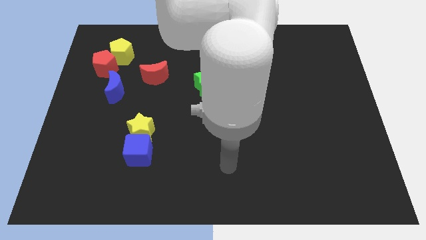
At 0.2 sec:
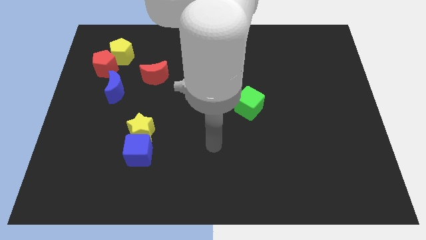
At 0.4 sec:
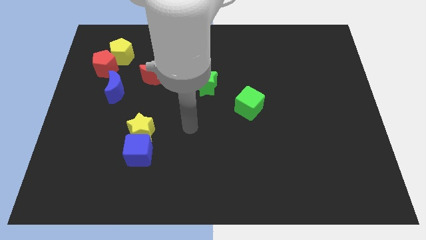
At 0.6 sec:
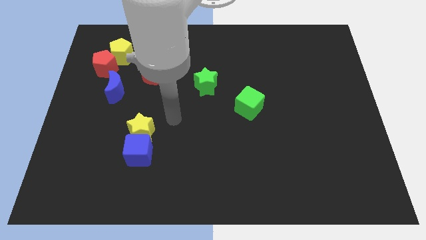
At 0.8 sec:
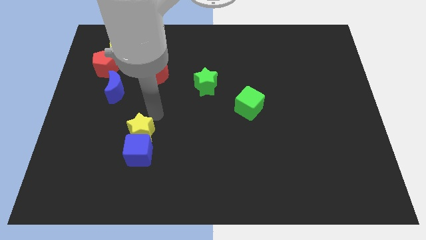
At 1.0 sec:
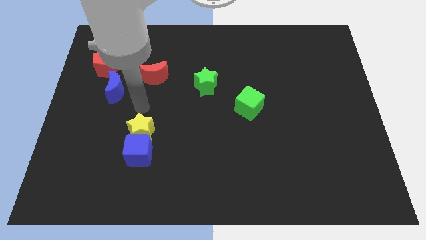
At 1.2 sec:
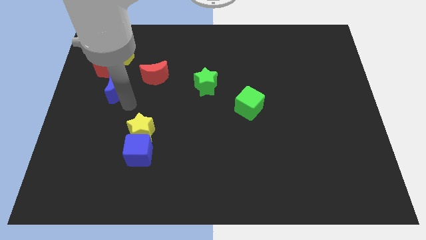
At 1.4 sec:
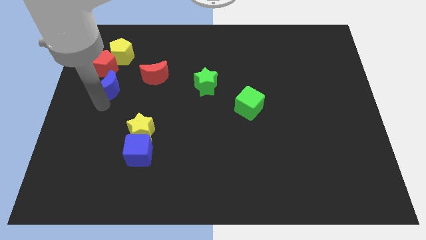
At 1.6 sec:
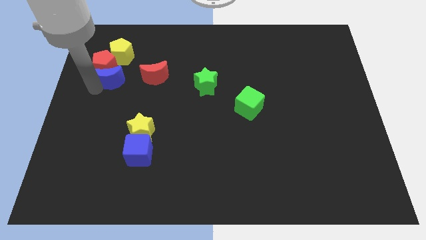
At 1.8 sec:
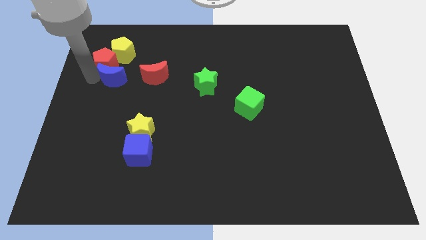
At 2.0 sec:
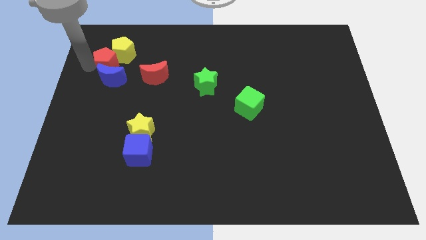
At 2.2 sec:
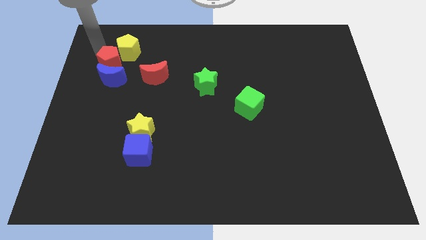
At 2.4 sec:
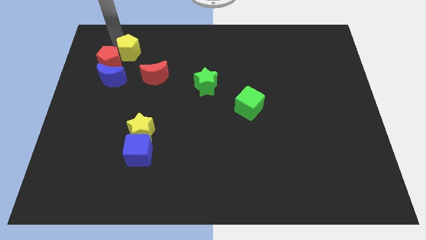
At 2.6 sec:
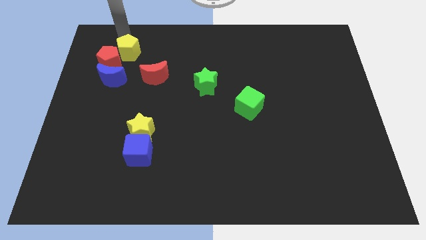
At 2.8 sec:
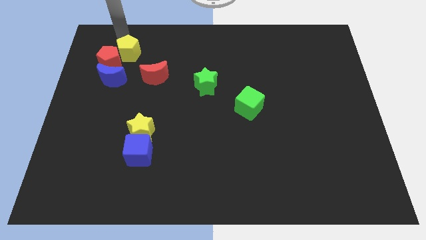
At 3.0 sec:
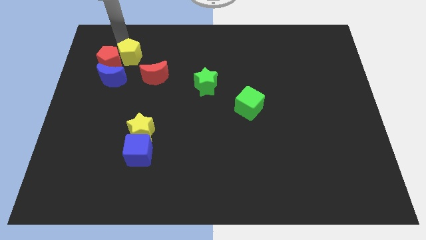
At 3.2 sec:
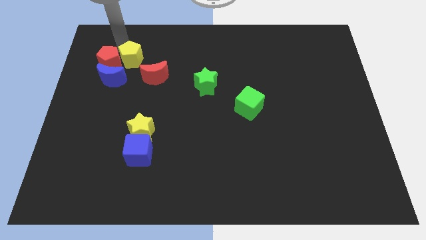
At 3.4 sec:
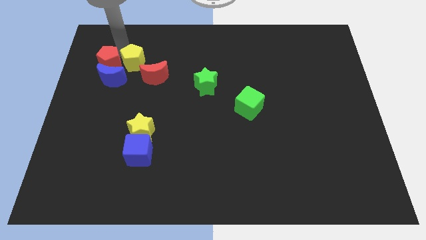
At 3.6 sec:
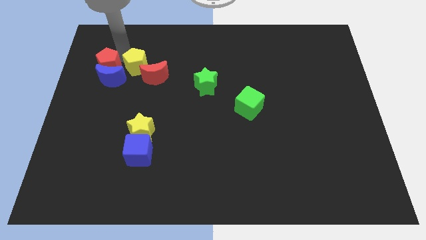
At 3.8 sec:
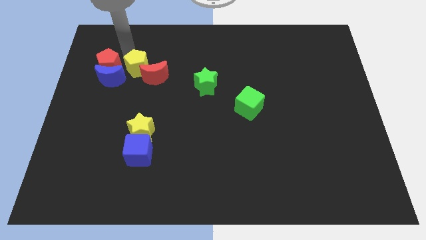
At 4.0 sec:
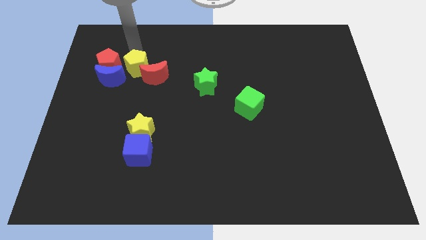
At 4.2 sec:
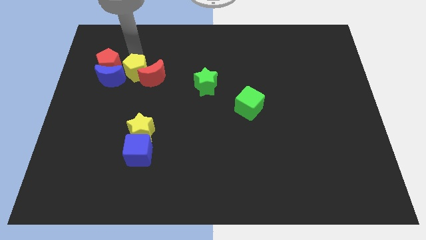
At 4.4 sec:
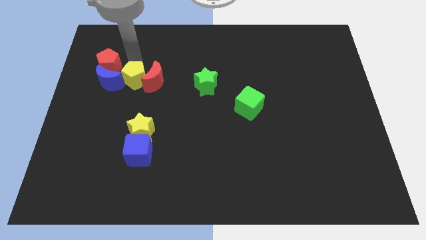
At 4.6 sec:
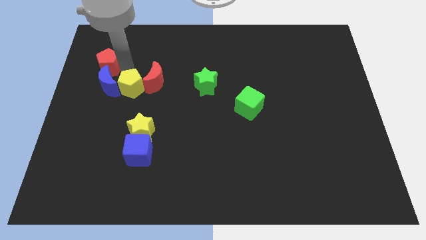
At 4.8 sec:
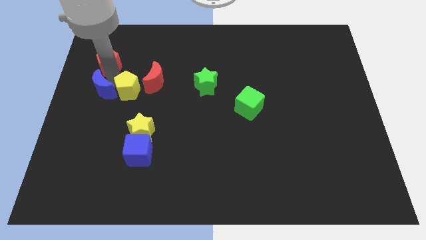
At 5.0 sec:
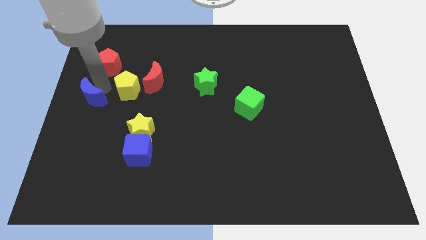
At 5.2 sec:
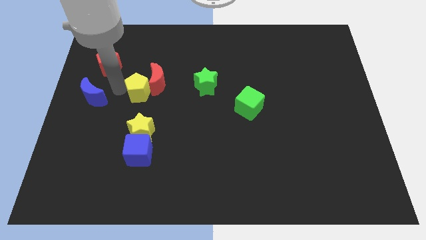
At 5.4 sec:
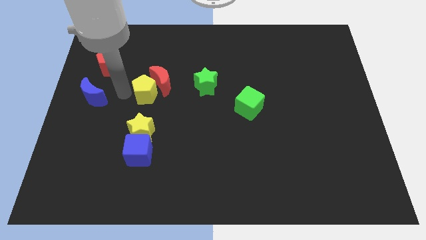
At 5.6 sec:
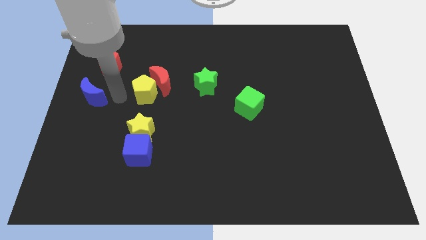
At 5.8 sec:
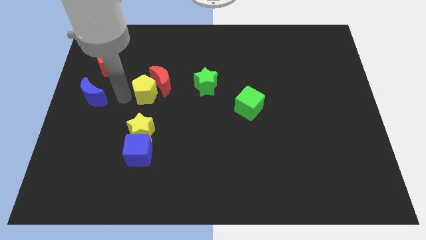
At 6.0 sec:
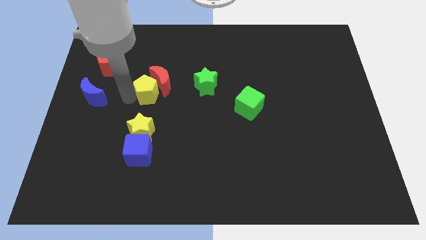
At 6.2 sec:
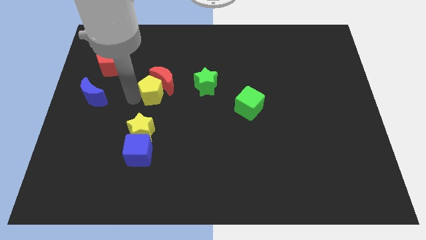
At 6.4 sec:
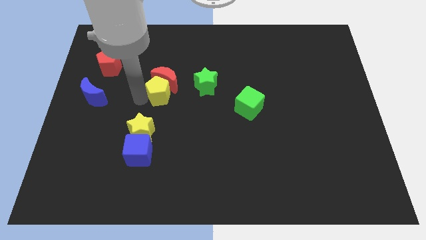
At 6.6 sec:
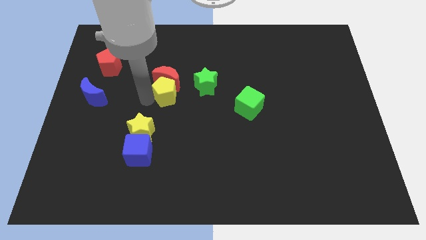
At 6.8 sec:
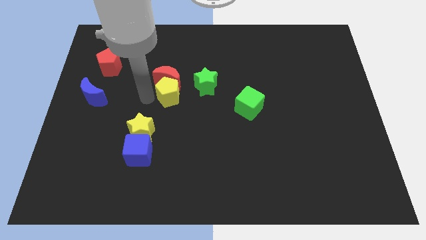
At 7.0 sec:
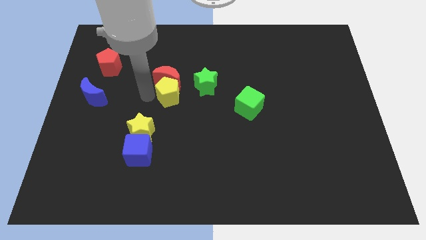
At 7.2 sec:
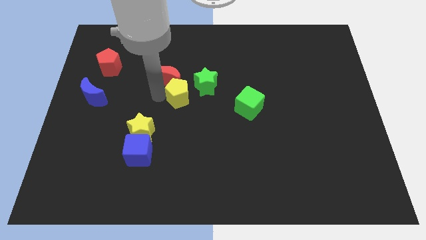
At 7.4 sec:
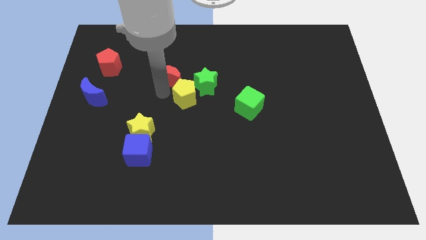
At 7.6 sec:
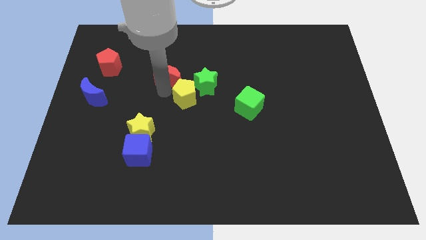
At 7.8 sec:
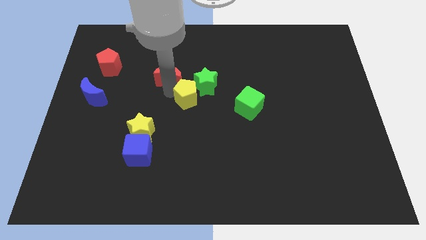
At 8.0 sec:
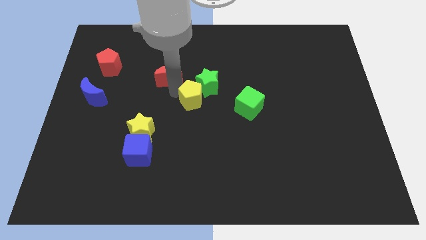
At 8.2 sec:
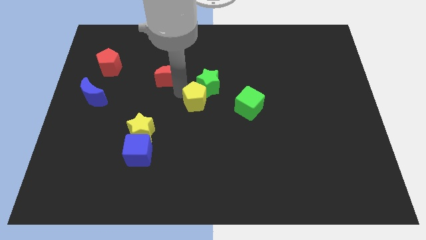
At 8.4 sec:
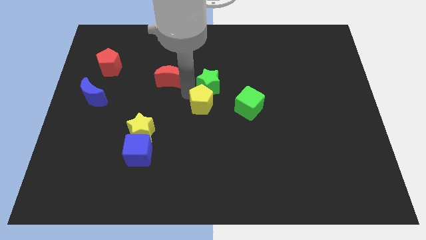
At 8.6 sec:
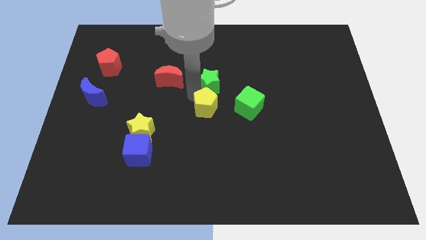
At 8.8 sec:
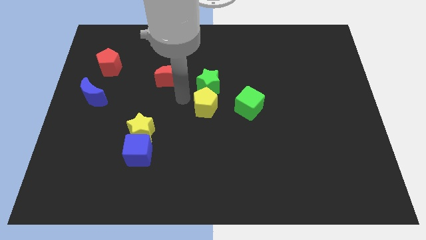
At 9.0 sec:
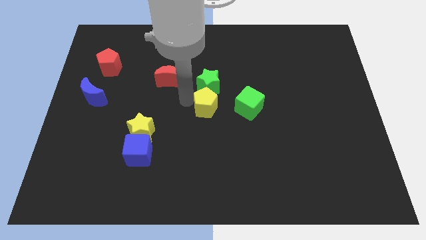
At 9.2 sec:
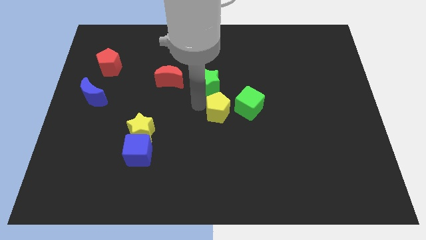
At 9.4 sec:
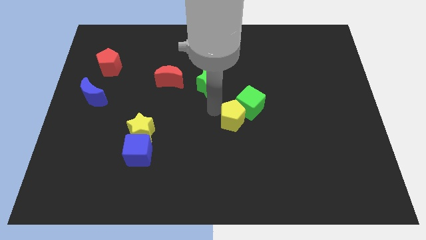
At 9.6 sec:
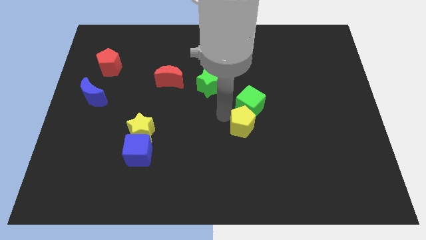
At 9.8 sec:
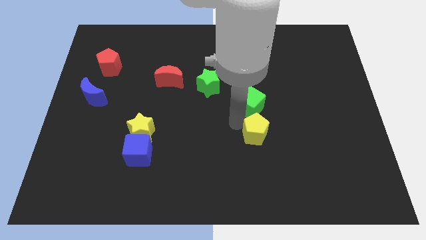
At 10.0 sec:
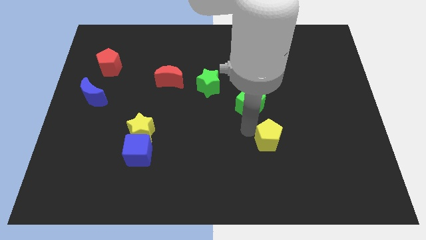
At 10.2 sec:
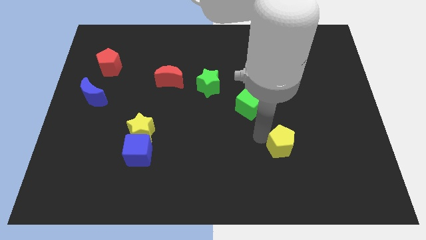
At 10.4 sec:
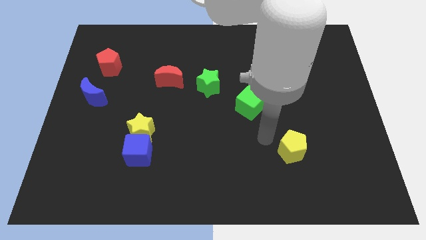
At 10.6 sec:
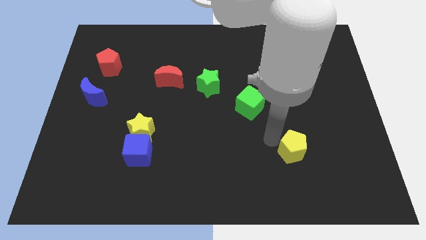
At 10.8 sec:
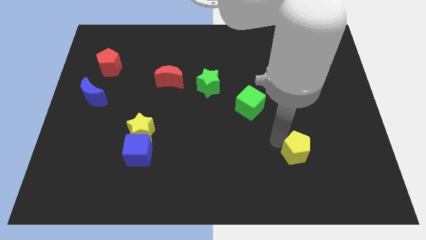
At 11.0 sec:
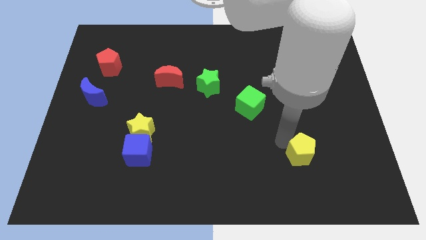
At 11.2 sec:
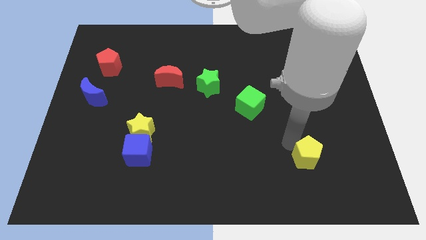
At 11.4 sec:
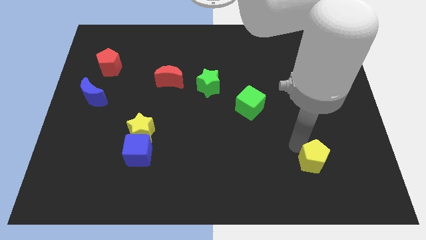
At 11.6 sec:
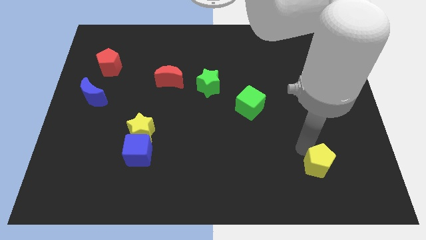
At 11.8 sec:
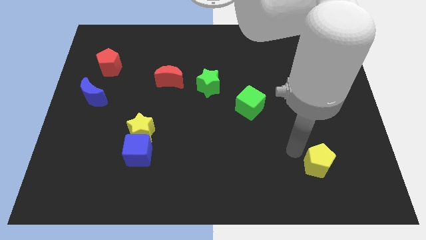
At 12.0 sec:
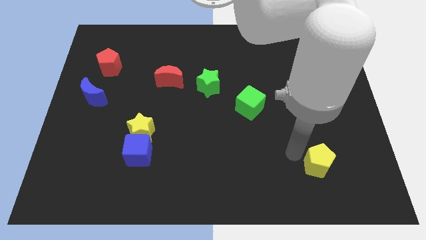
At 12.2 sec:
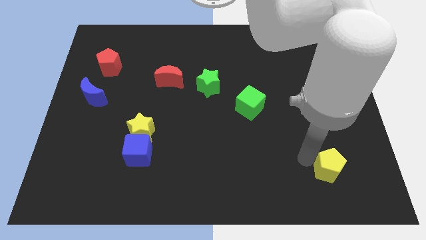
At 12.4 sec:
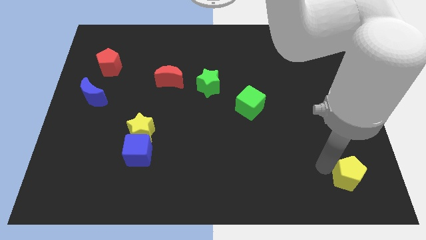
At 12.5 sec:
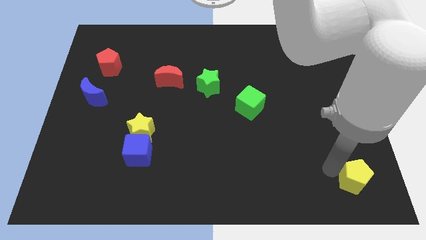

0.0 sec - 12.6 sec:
put the yellow pentagon to the bottom right corner
